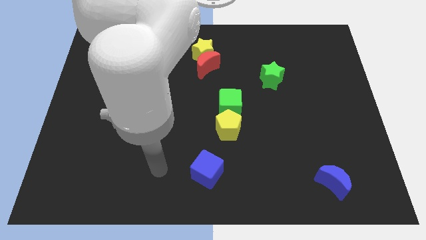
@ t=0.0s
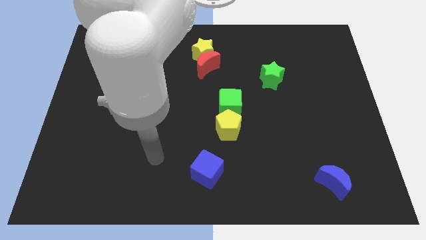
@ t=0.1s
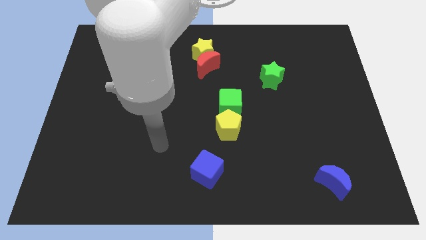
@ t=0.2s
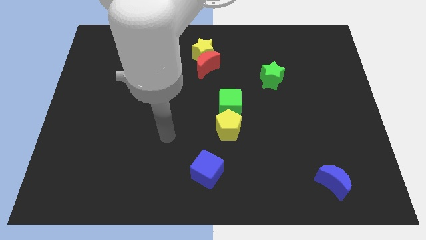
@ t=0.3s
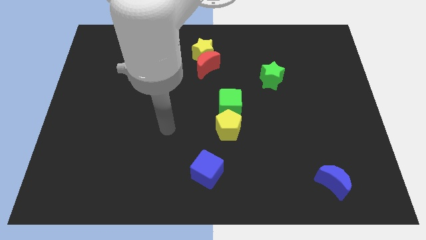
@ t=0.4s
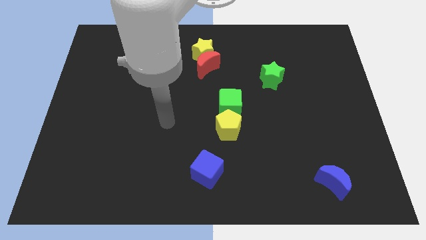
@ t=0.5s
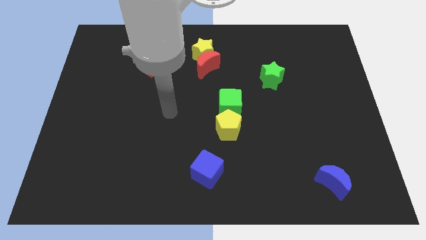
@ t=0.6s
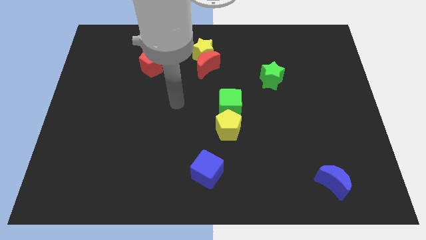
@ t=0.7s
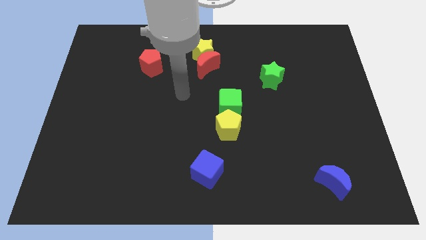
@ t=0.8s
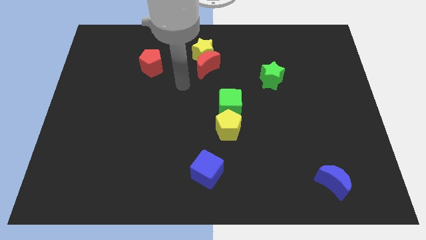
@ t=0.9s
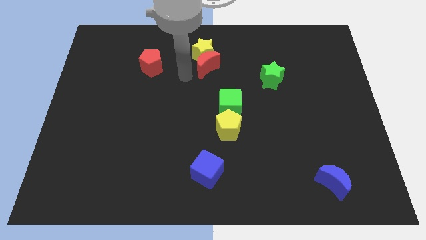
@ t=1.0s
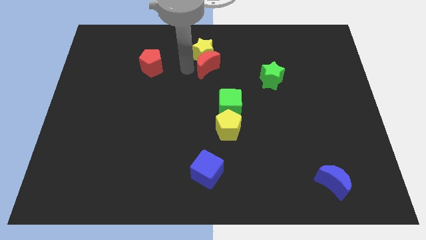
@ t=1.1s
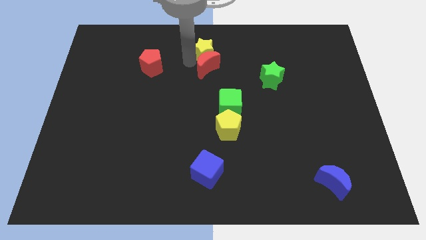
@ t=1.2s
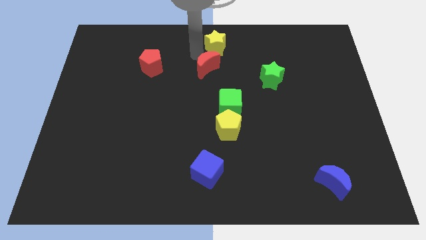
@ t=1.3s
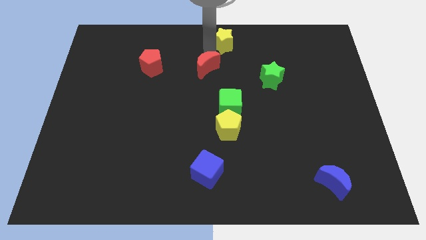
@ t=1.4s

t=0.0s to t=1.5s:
pull the red moon apart from the yellow star

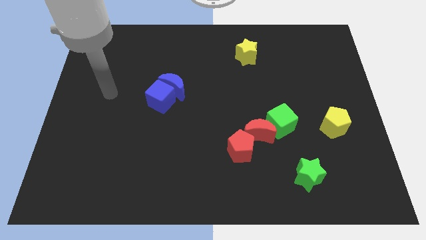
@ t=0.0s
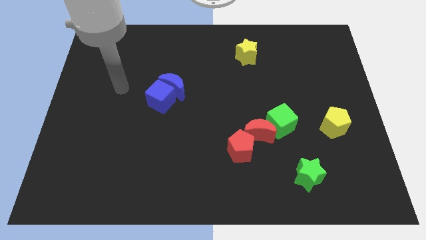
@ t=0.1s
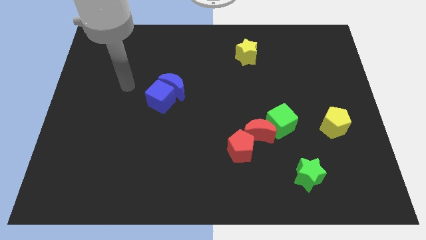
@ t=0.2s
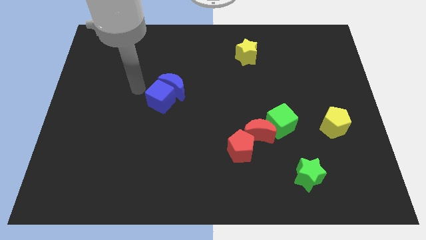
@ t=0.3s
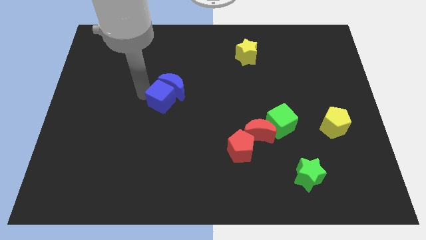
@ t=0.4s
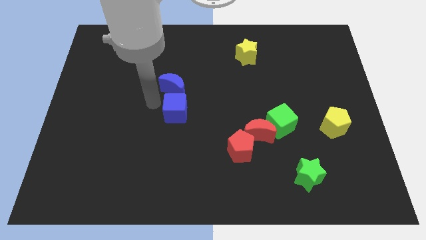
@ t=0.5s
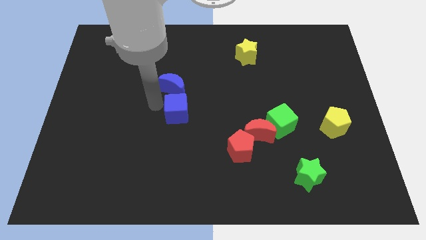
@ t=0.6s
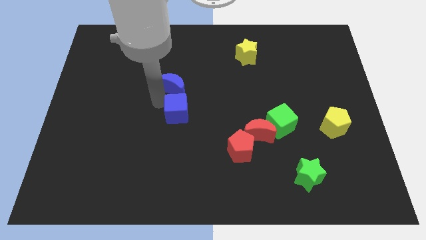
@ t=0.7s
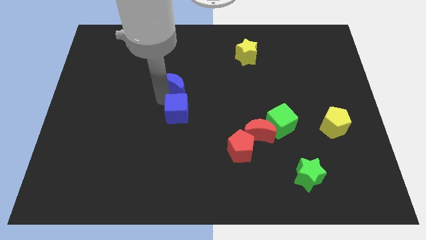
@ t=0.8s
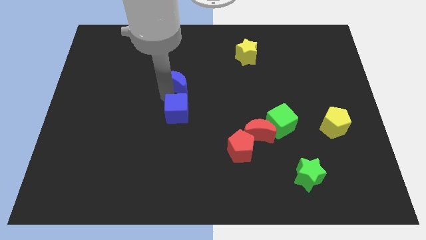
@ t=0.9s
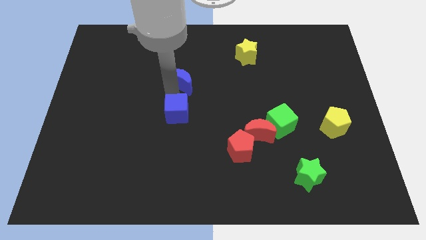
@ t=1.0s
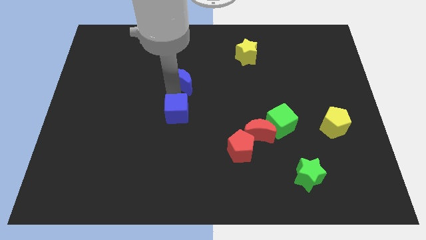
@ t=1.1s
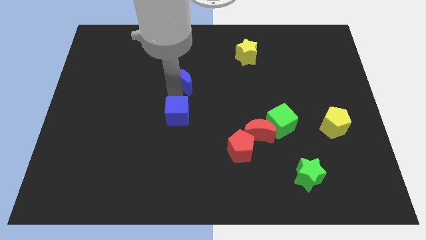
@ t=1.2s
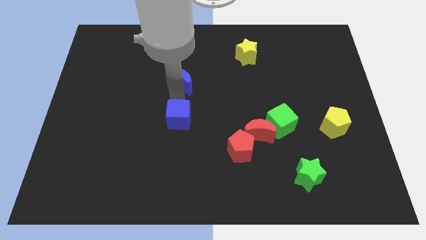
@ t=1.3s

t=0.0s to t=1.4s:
pull the blue moon apart from the blue cube

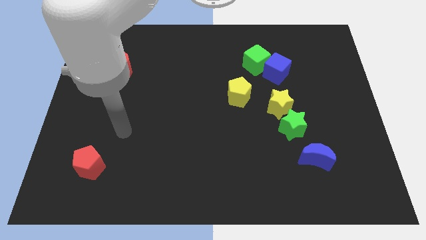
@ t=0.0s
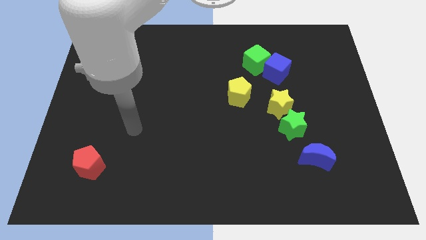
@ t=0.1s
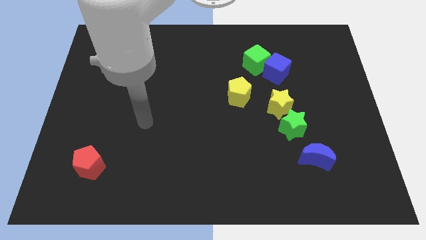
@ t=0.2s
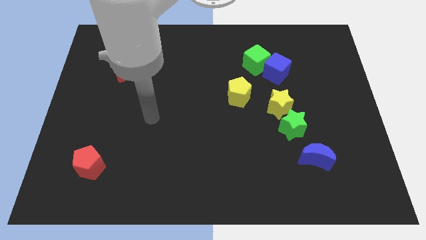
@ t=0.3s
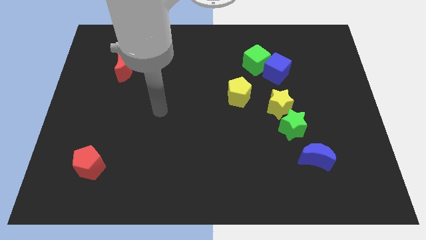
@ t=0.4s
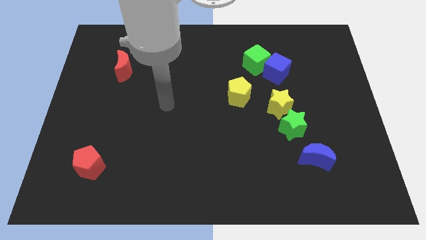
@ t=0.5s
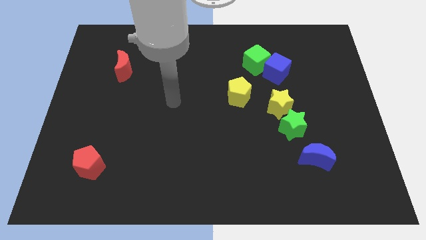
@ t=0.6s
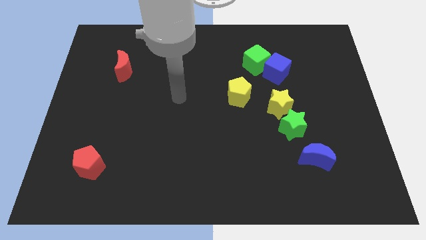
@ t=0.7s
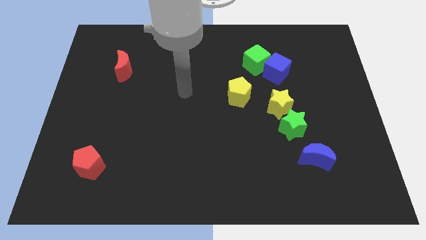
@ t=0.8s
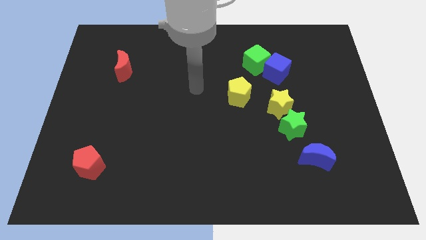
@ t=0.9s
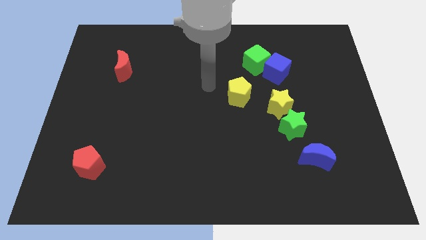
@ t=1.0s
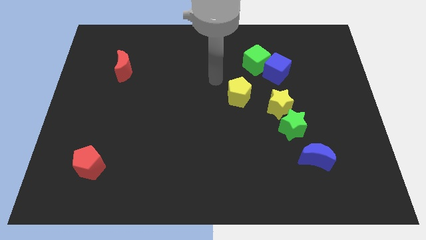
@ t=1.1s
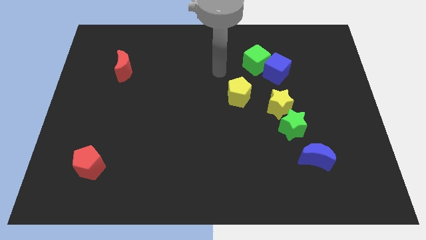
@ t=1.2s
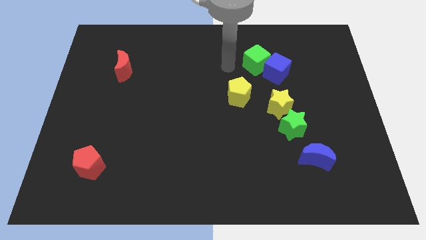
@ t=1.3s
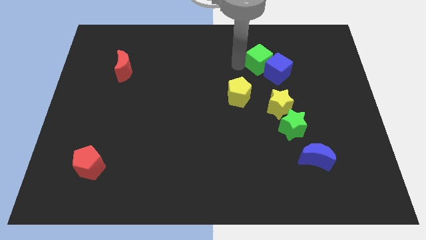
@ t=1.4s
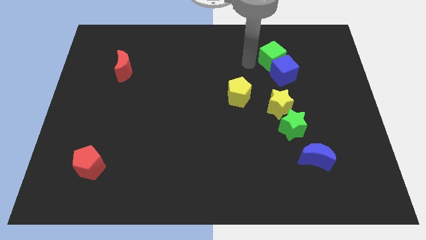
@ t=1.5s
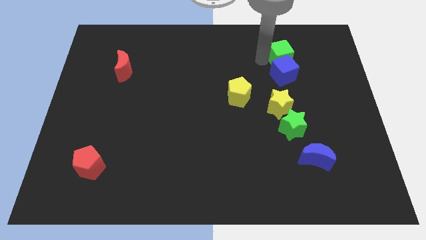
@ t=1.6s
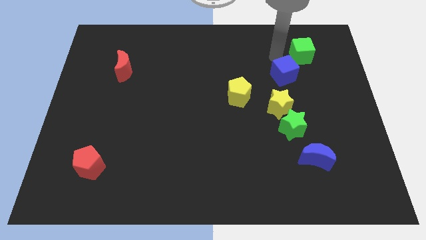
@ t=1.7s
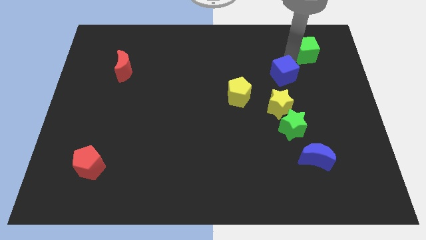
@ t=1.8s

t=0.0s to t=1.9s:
separate the blue cube from the green cube

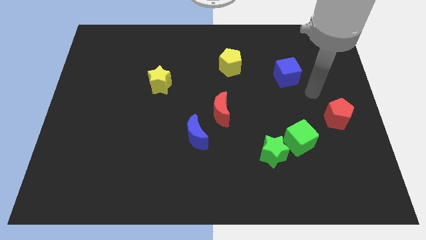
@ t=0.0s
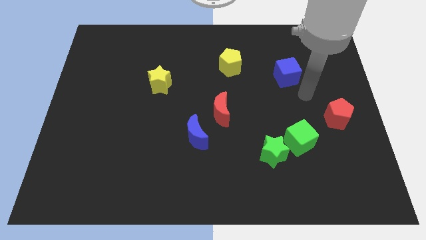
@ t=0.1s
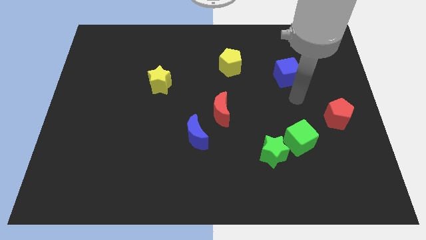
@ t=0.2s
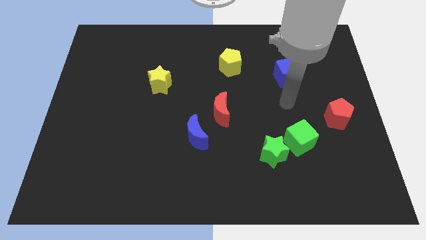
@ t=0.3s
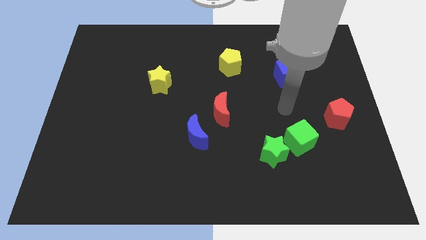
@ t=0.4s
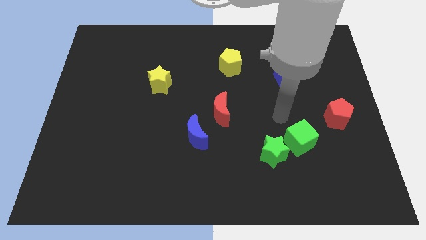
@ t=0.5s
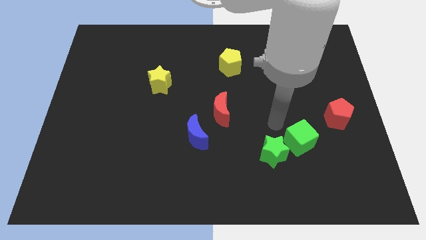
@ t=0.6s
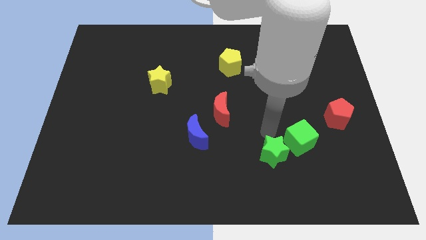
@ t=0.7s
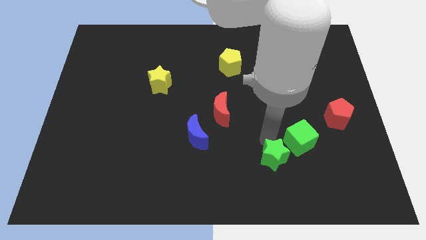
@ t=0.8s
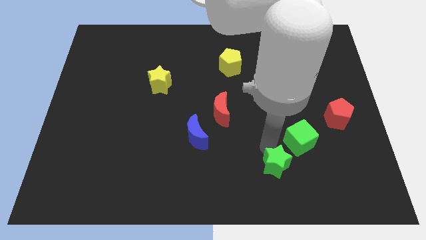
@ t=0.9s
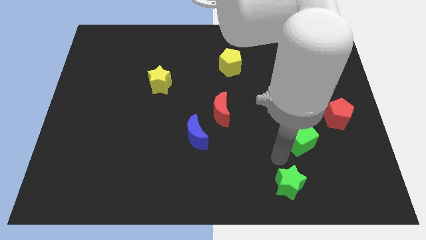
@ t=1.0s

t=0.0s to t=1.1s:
separate the green cube from the green star

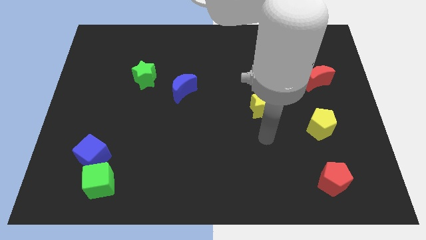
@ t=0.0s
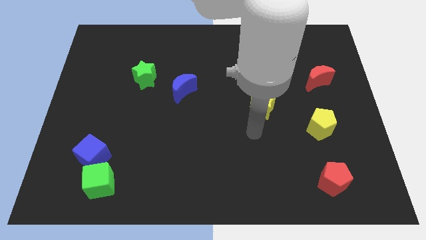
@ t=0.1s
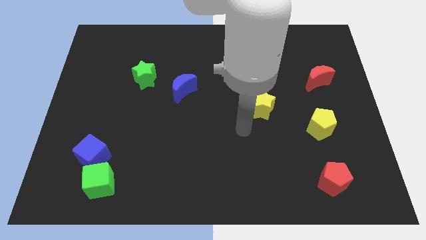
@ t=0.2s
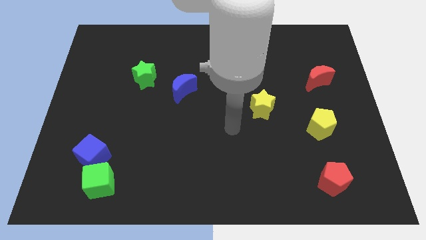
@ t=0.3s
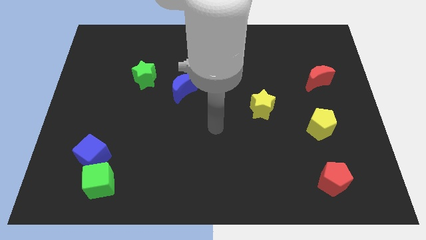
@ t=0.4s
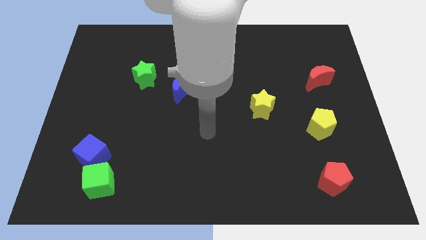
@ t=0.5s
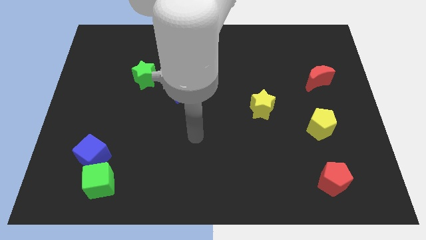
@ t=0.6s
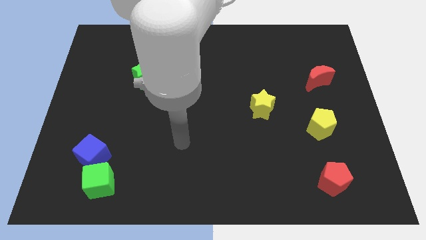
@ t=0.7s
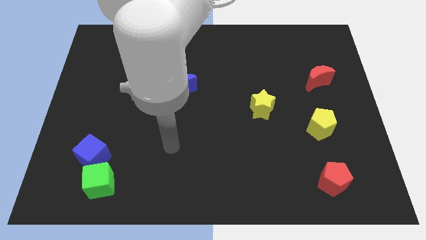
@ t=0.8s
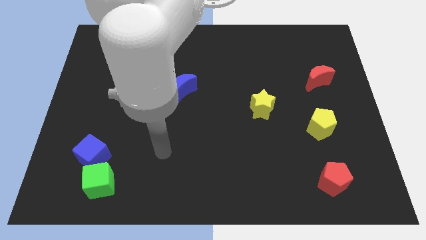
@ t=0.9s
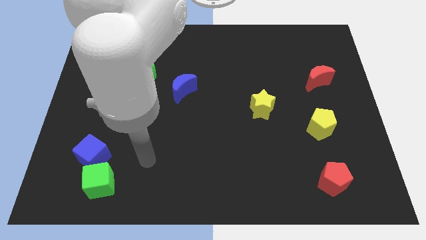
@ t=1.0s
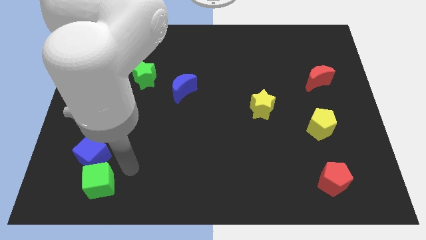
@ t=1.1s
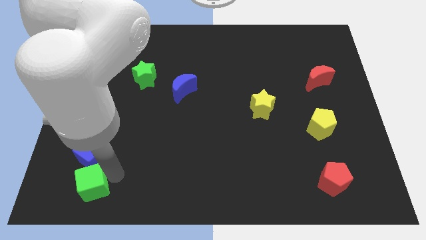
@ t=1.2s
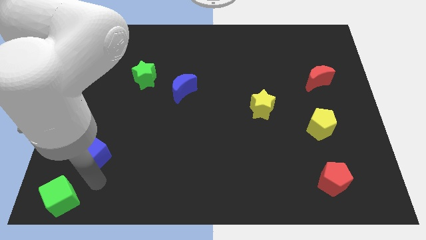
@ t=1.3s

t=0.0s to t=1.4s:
move the blue cube away from the green cube

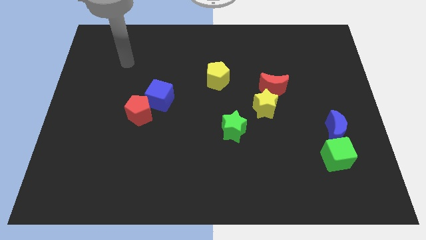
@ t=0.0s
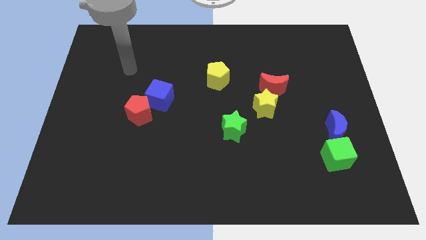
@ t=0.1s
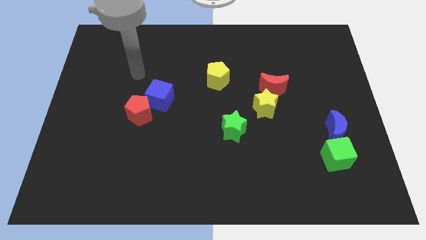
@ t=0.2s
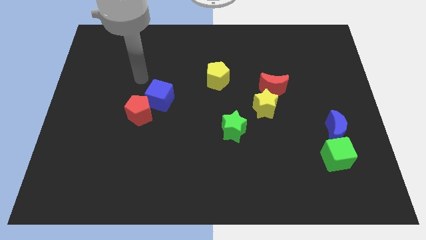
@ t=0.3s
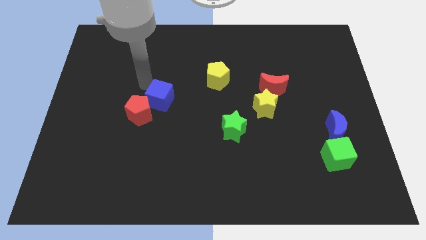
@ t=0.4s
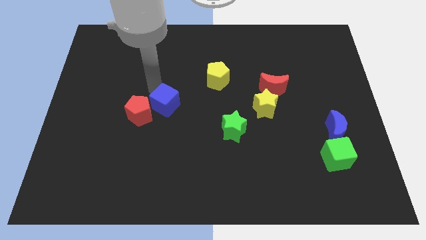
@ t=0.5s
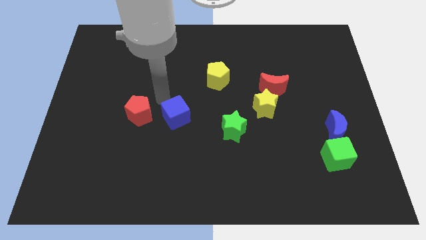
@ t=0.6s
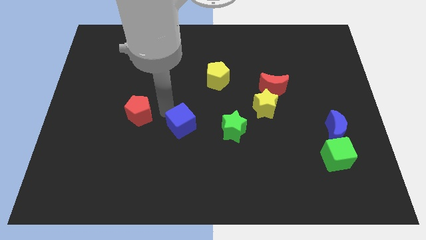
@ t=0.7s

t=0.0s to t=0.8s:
move the red pentagon away from the blue cube

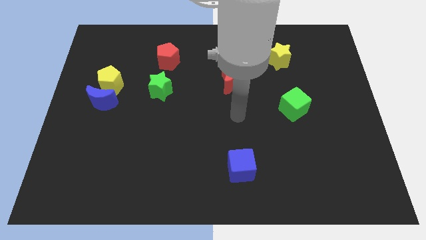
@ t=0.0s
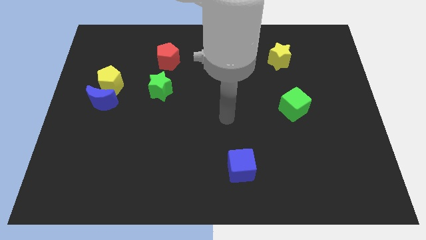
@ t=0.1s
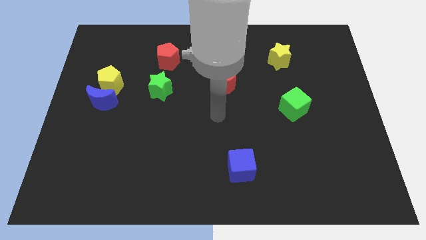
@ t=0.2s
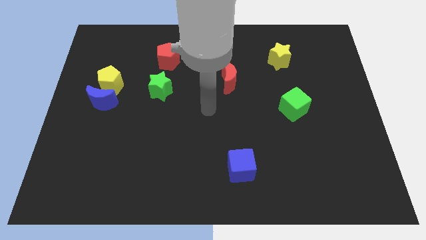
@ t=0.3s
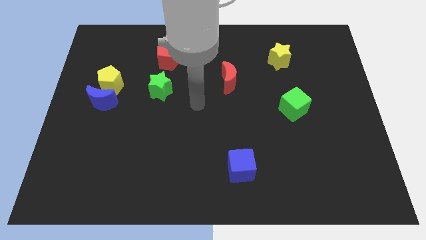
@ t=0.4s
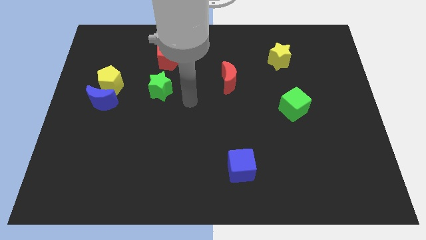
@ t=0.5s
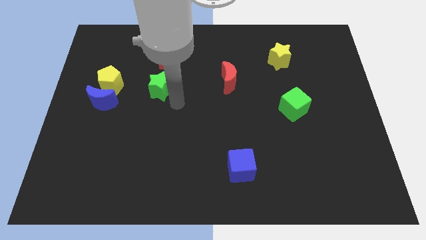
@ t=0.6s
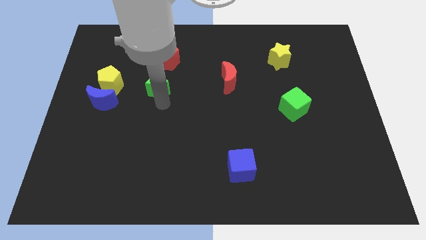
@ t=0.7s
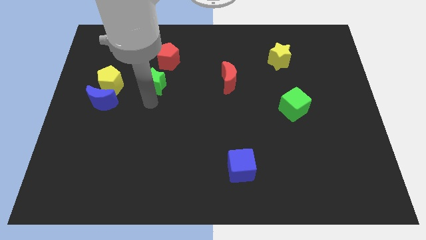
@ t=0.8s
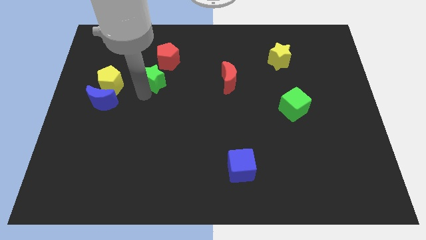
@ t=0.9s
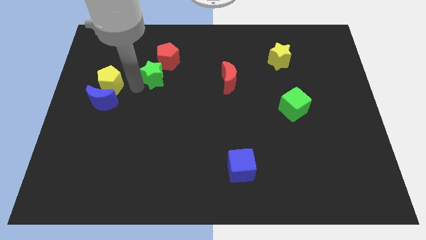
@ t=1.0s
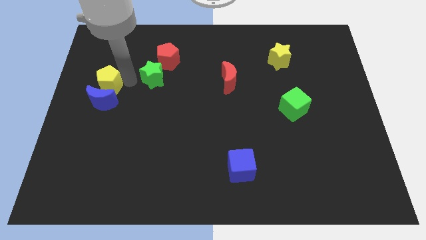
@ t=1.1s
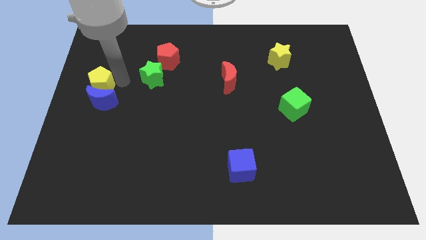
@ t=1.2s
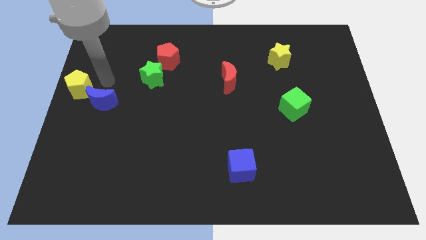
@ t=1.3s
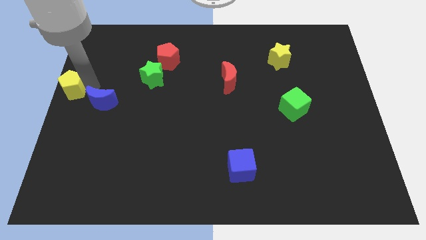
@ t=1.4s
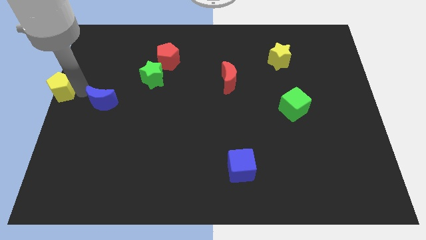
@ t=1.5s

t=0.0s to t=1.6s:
separate the blue moon from the yellow pentagon
